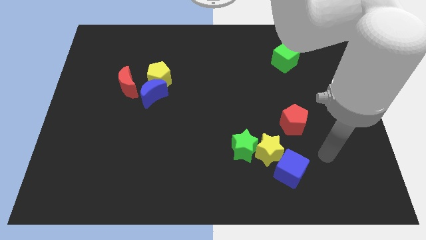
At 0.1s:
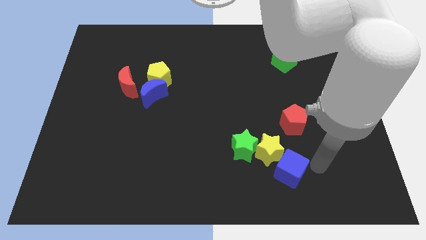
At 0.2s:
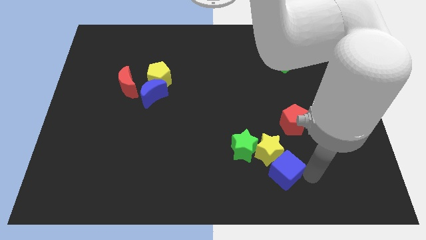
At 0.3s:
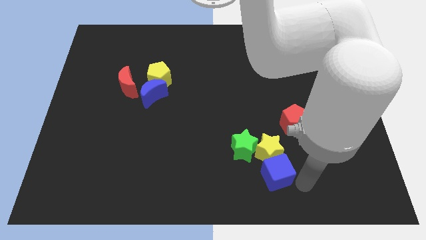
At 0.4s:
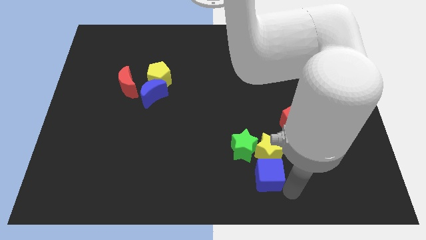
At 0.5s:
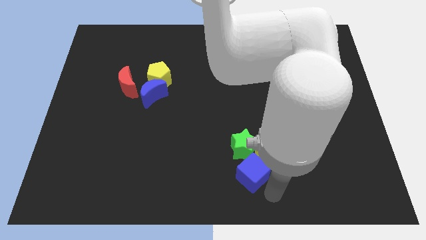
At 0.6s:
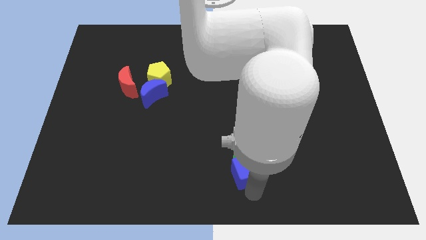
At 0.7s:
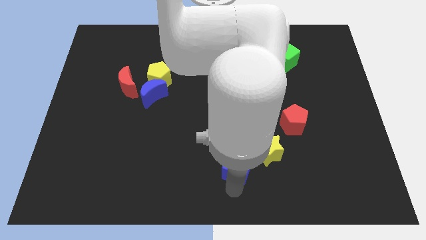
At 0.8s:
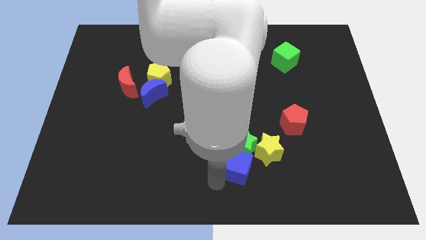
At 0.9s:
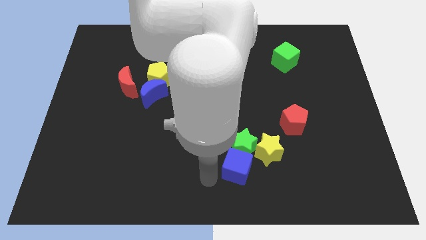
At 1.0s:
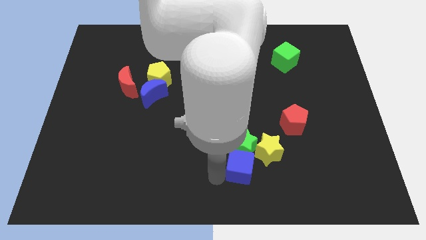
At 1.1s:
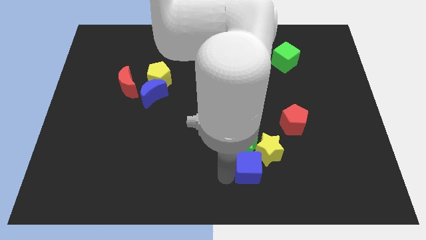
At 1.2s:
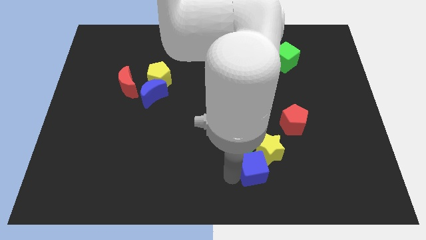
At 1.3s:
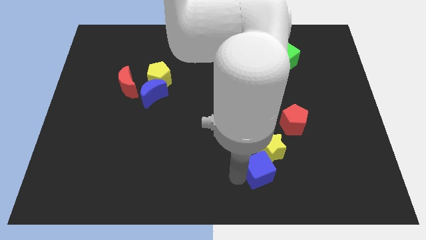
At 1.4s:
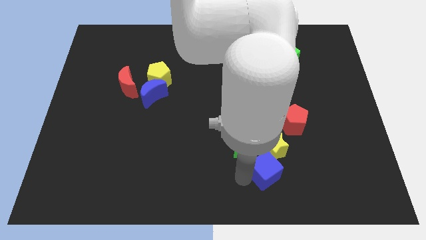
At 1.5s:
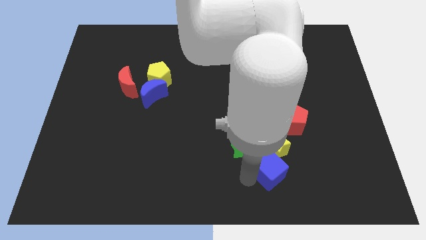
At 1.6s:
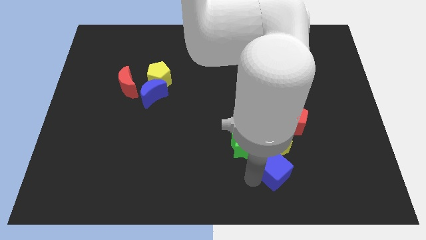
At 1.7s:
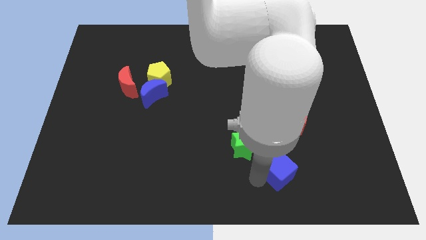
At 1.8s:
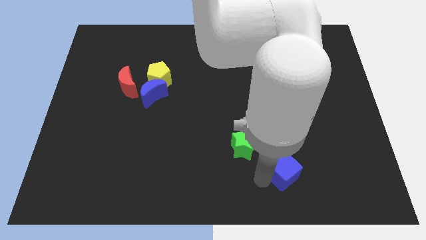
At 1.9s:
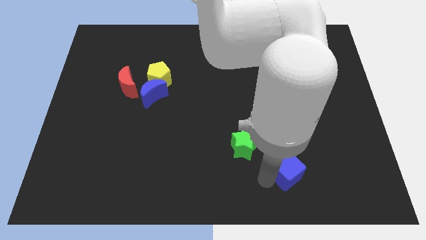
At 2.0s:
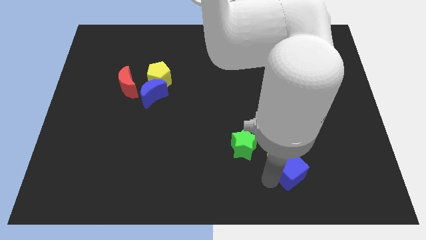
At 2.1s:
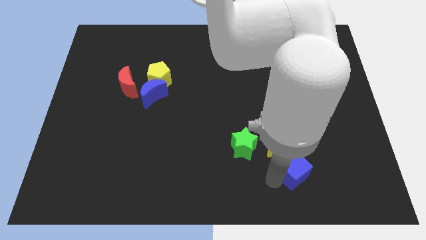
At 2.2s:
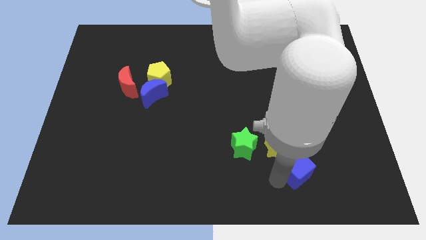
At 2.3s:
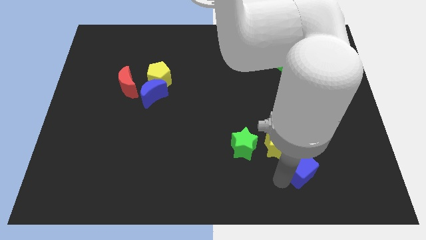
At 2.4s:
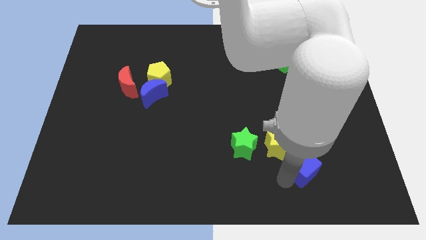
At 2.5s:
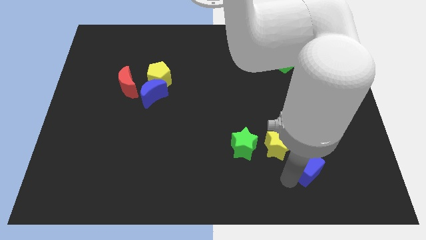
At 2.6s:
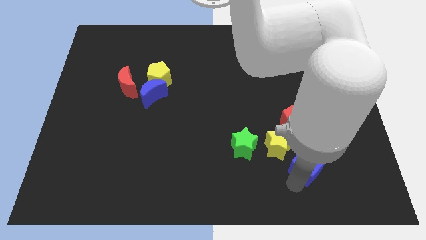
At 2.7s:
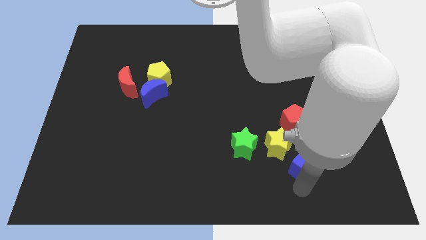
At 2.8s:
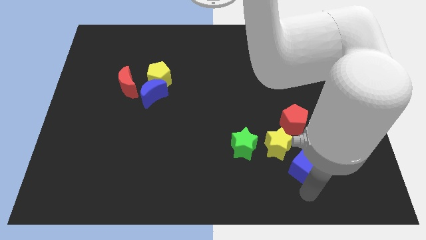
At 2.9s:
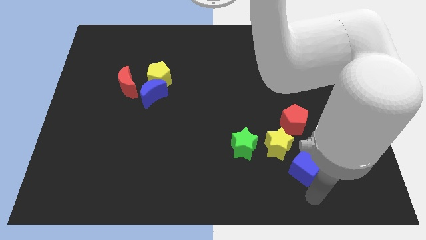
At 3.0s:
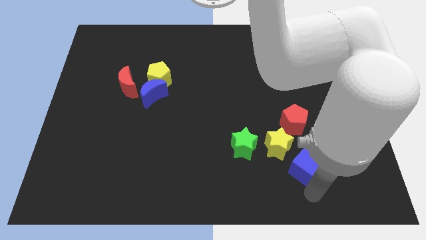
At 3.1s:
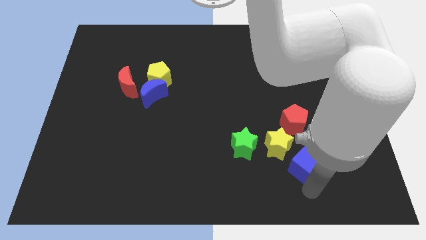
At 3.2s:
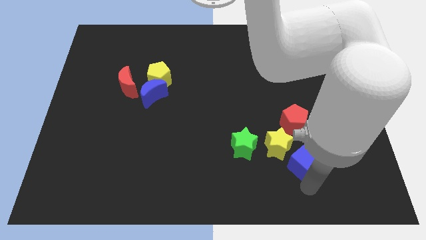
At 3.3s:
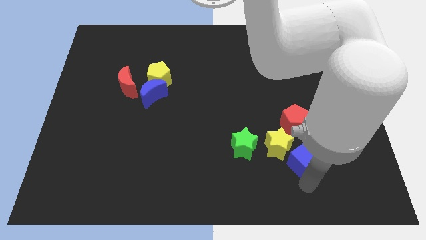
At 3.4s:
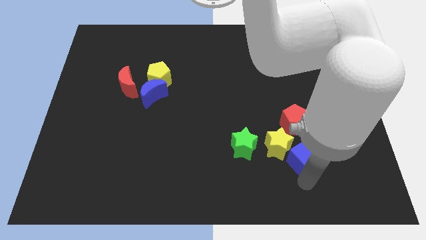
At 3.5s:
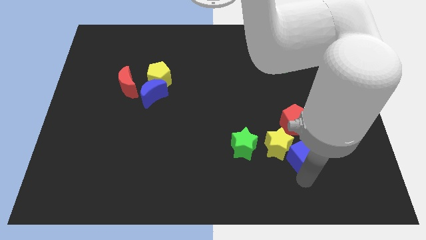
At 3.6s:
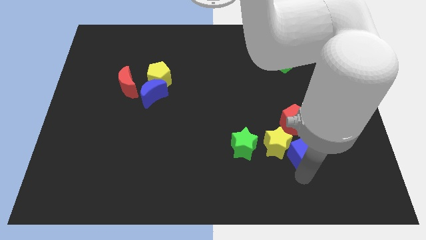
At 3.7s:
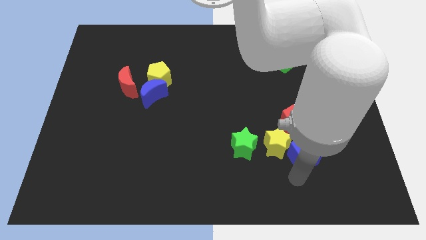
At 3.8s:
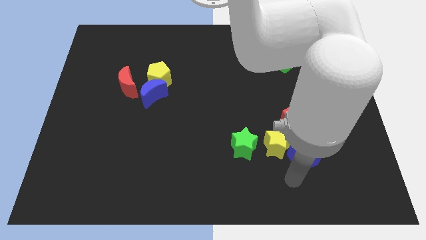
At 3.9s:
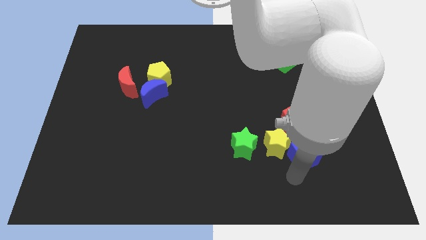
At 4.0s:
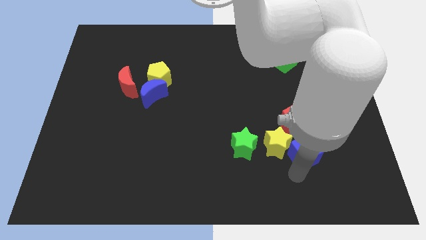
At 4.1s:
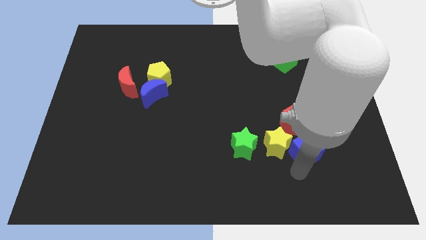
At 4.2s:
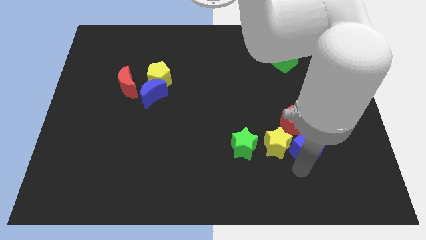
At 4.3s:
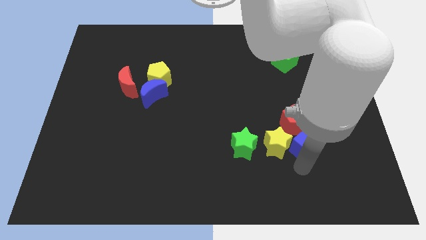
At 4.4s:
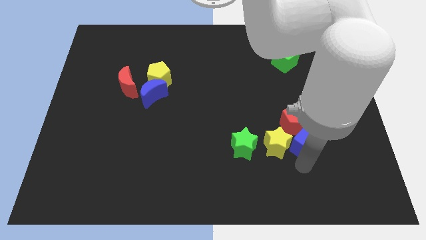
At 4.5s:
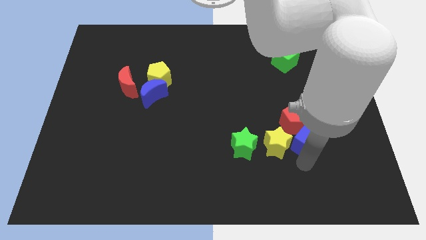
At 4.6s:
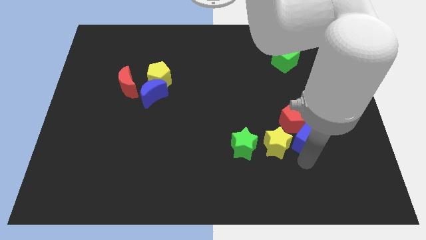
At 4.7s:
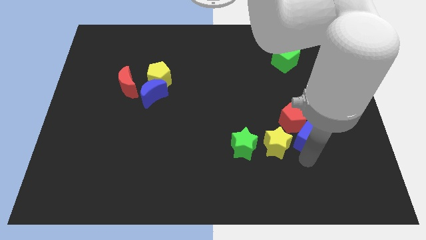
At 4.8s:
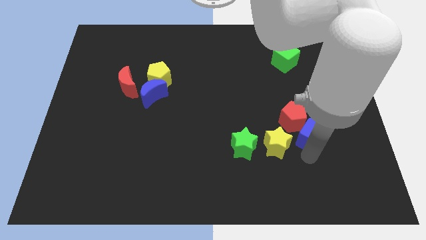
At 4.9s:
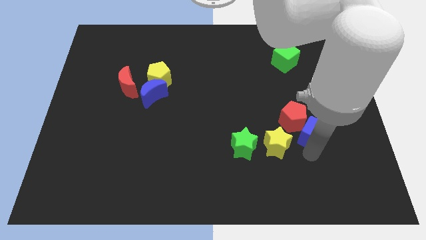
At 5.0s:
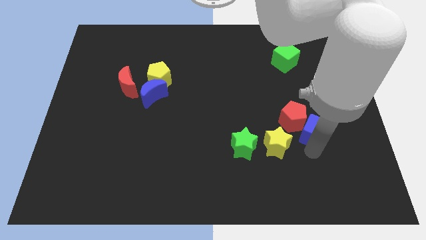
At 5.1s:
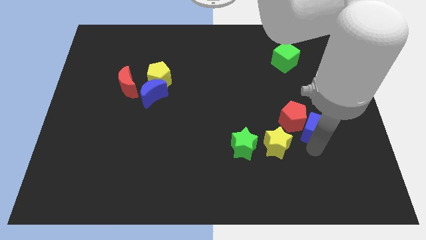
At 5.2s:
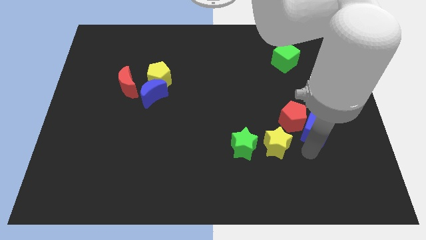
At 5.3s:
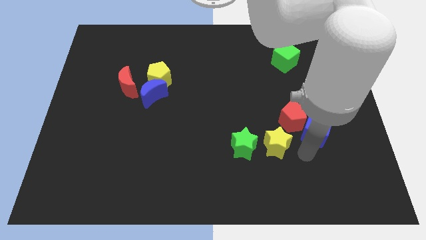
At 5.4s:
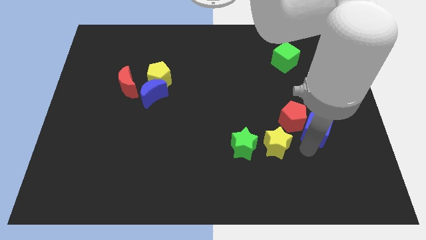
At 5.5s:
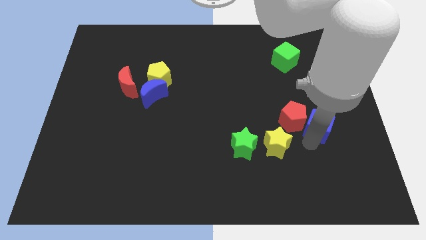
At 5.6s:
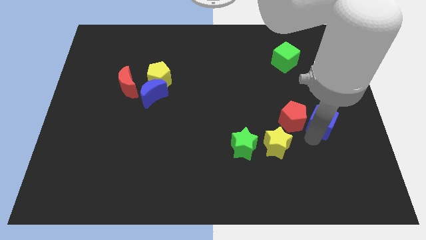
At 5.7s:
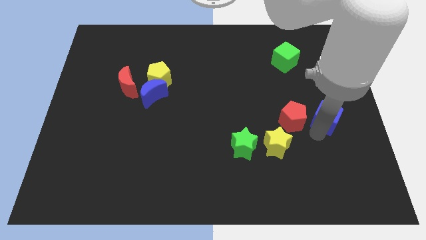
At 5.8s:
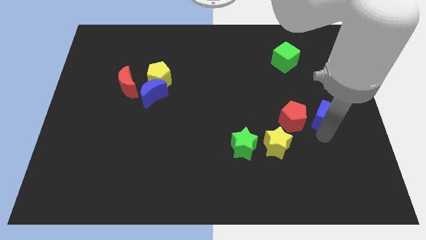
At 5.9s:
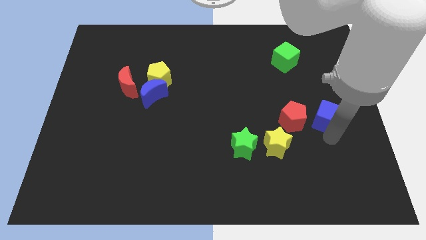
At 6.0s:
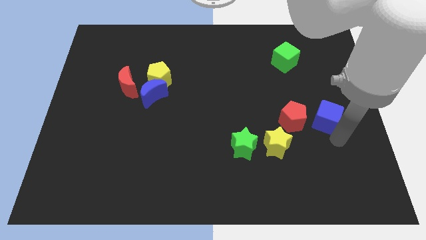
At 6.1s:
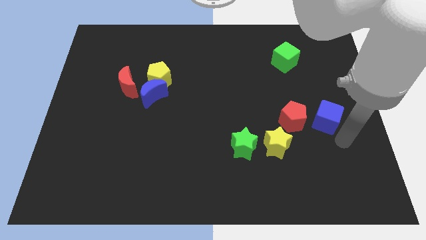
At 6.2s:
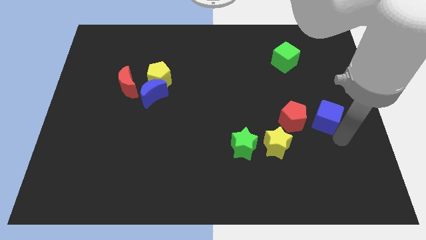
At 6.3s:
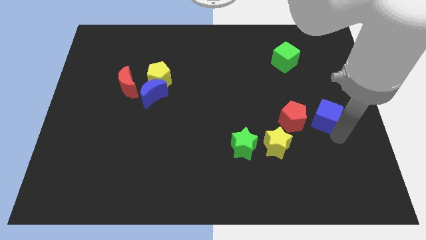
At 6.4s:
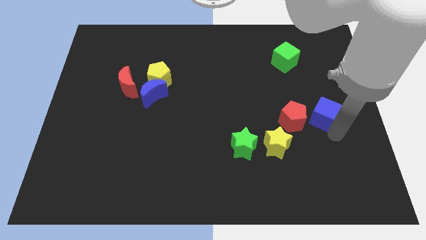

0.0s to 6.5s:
move the blue cube to the top right side of the red pentagon

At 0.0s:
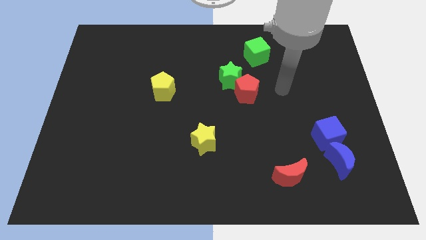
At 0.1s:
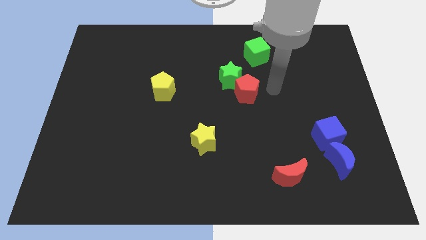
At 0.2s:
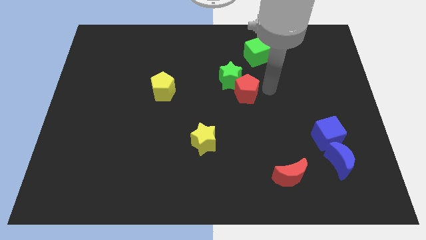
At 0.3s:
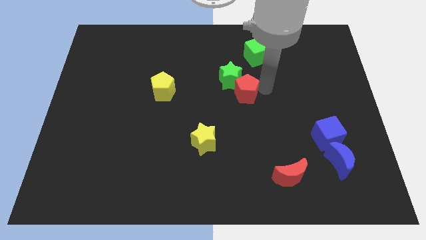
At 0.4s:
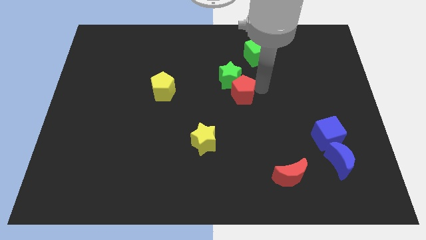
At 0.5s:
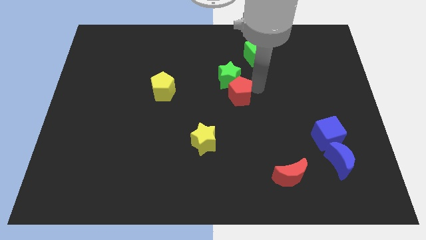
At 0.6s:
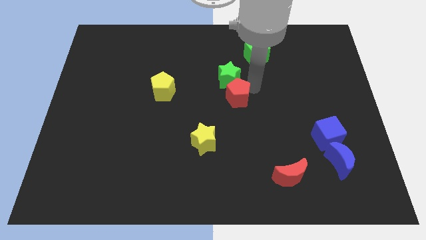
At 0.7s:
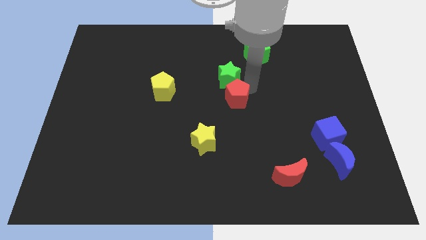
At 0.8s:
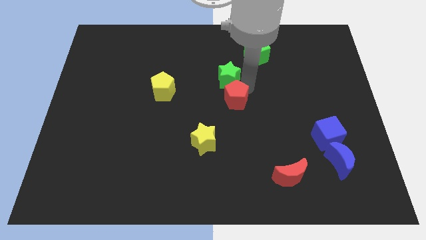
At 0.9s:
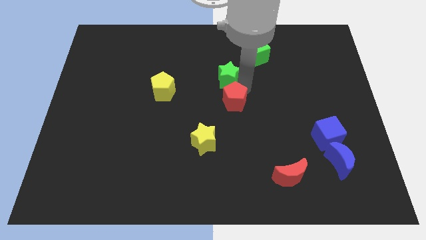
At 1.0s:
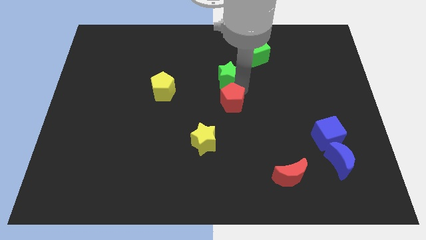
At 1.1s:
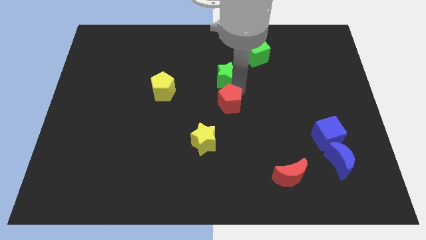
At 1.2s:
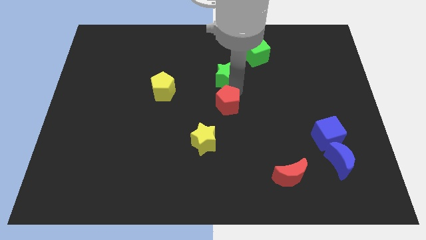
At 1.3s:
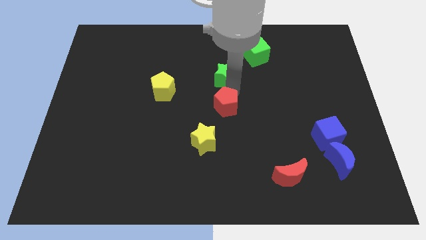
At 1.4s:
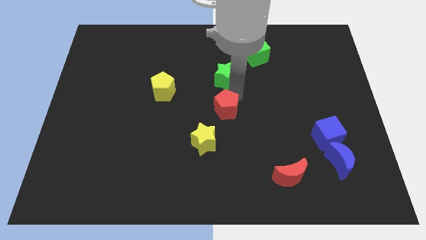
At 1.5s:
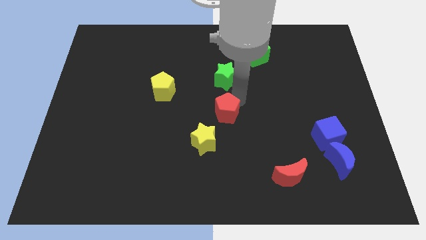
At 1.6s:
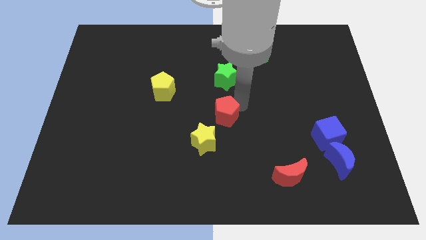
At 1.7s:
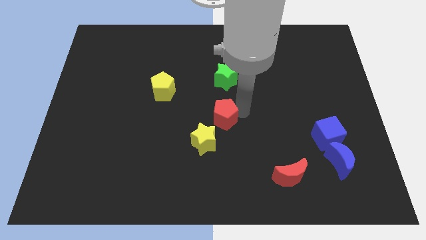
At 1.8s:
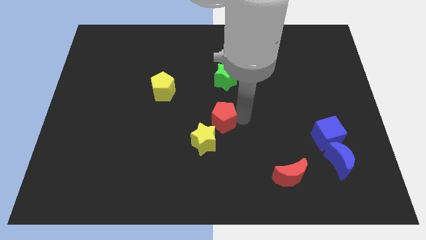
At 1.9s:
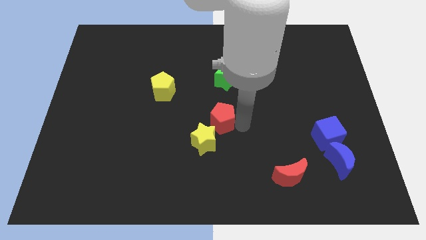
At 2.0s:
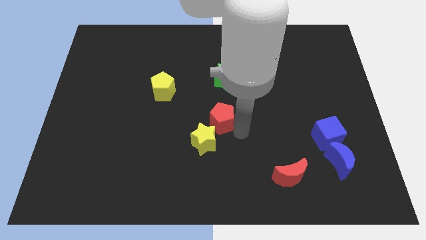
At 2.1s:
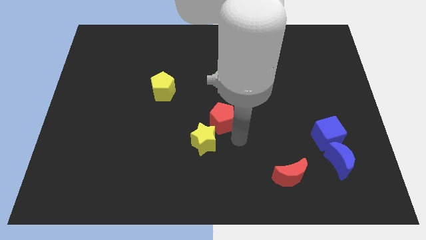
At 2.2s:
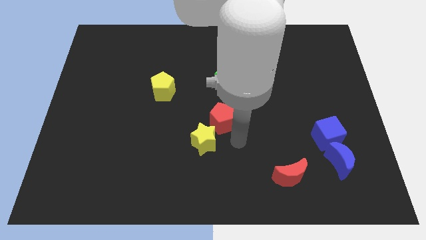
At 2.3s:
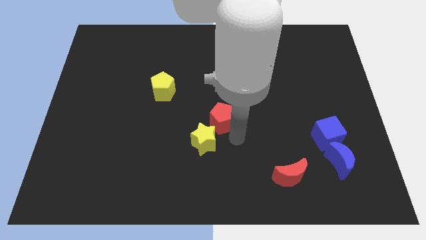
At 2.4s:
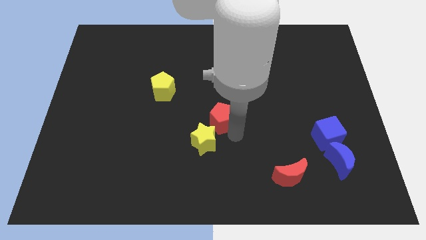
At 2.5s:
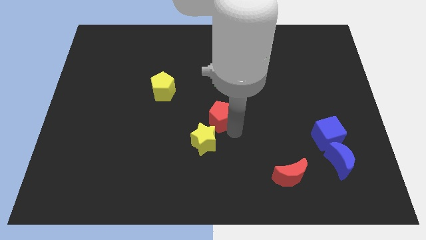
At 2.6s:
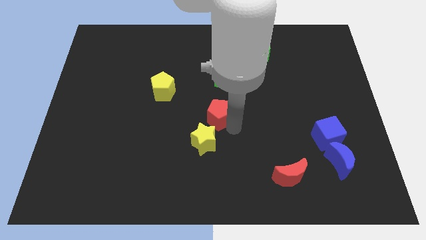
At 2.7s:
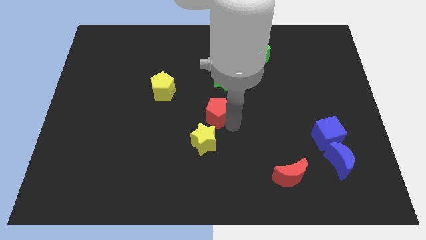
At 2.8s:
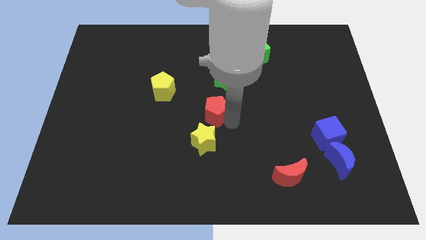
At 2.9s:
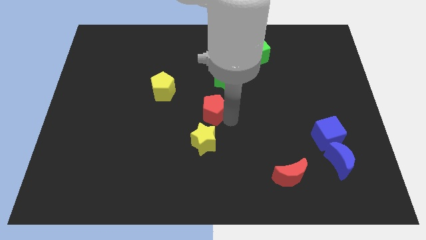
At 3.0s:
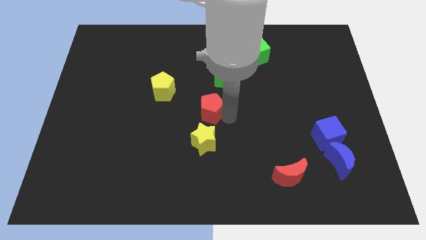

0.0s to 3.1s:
put the red pentagon to the bottom left of the green star
